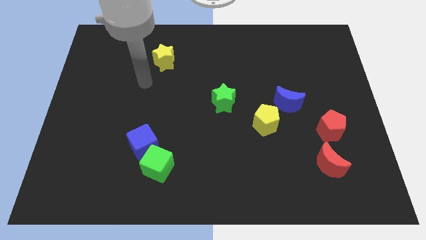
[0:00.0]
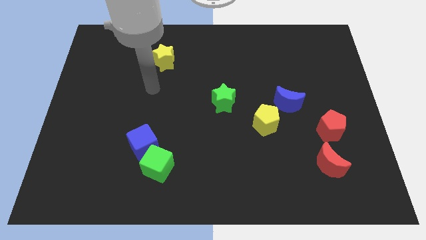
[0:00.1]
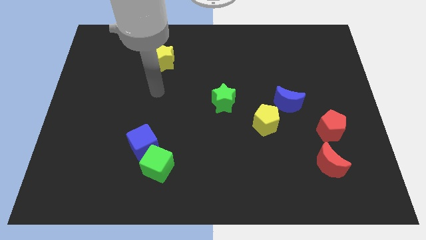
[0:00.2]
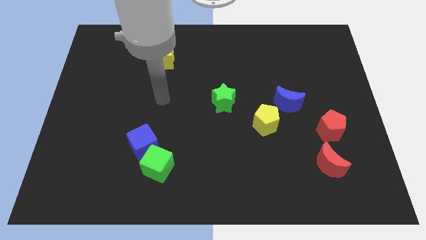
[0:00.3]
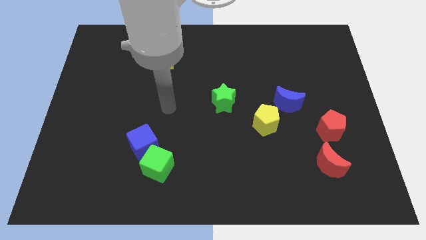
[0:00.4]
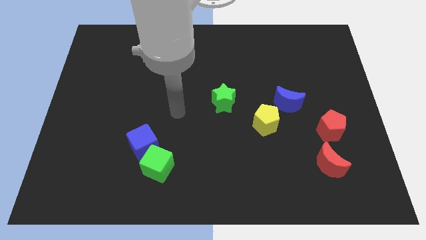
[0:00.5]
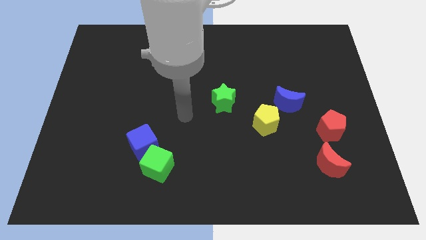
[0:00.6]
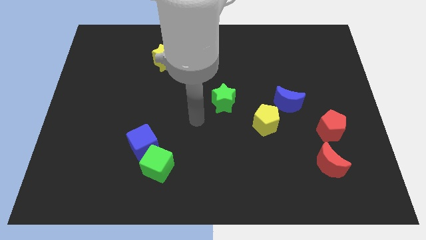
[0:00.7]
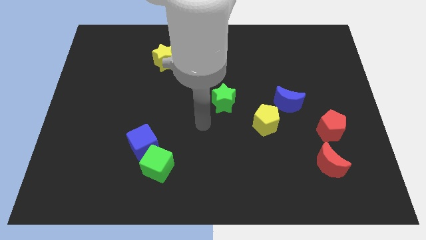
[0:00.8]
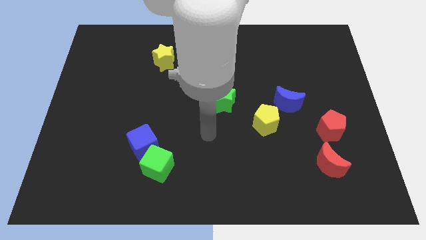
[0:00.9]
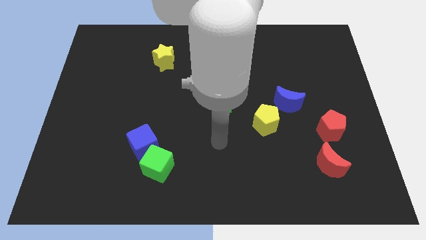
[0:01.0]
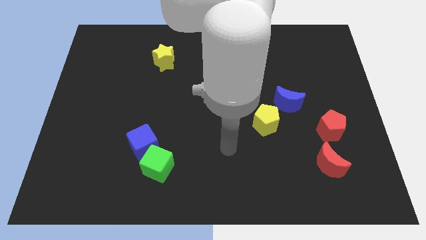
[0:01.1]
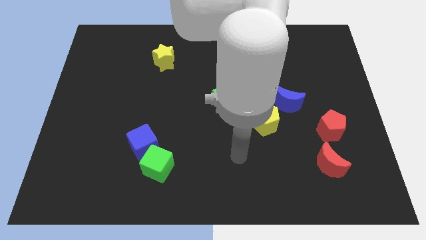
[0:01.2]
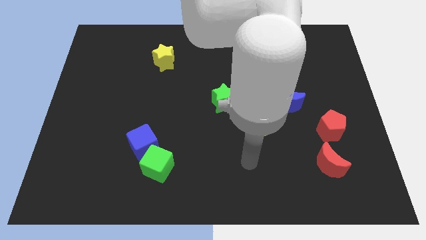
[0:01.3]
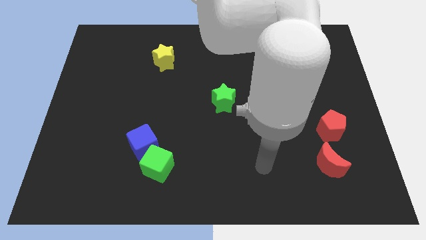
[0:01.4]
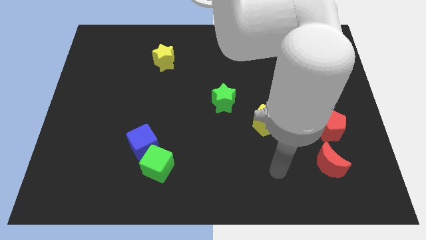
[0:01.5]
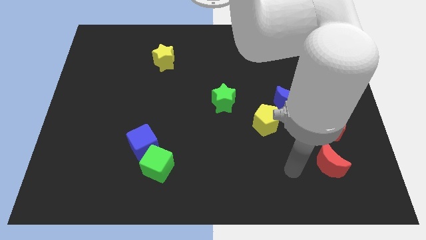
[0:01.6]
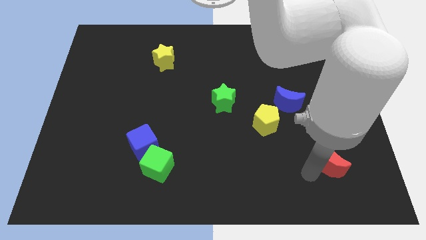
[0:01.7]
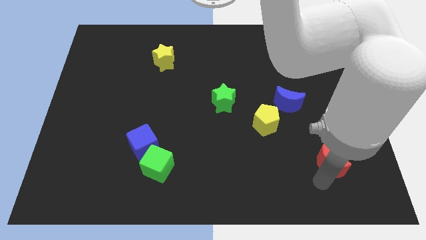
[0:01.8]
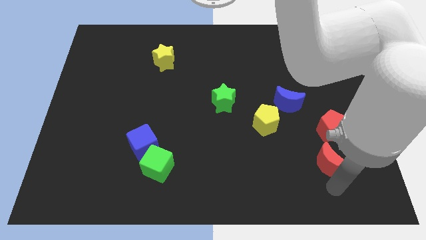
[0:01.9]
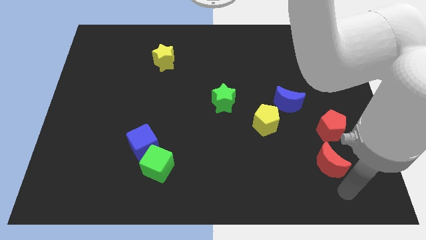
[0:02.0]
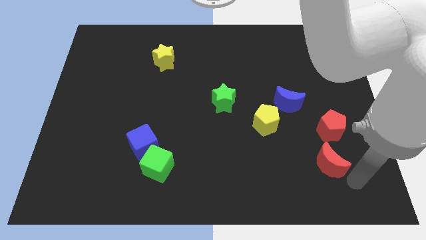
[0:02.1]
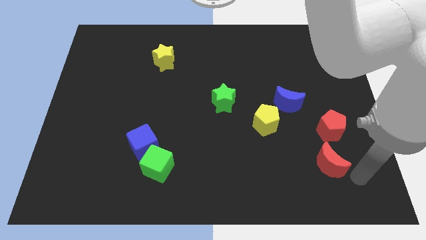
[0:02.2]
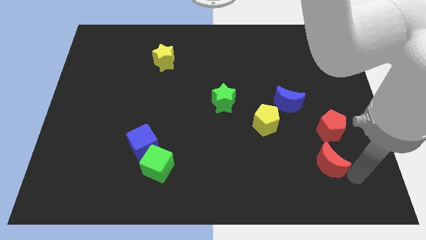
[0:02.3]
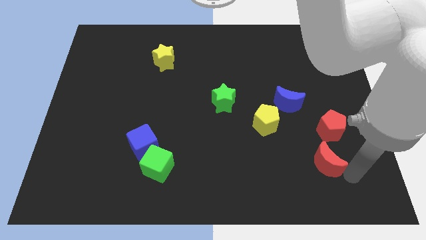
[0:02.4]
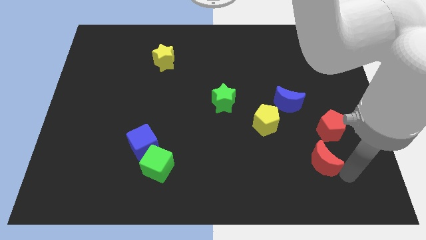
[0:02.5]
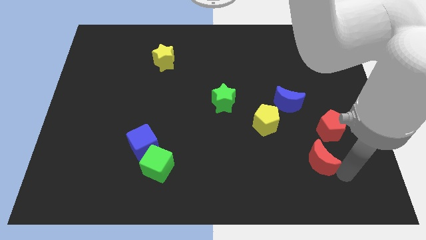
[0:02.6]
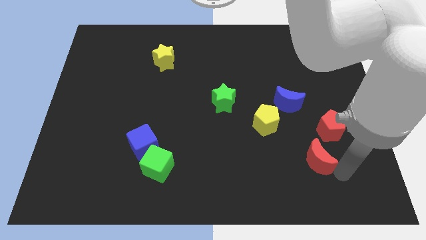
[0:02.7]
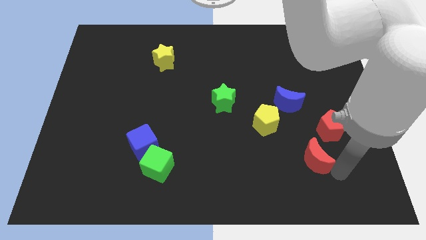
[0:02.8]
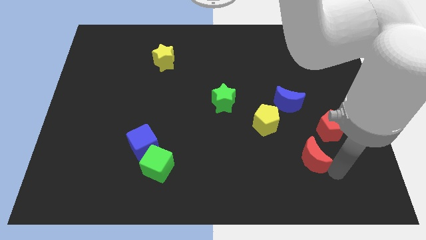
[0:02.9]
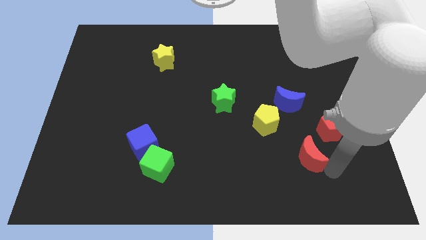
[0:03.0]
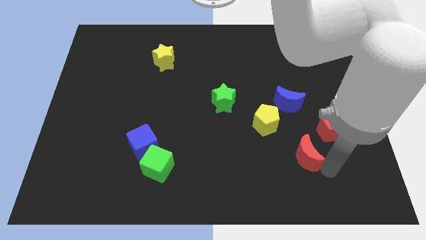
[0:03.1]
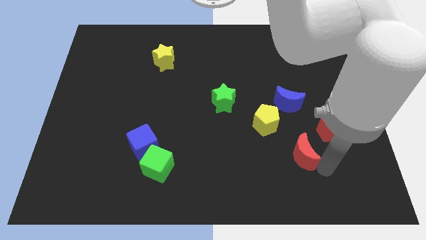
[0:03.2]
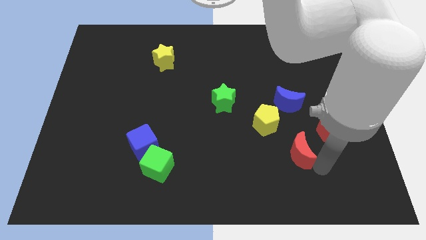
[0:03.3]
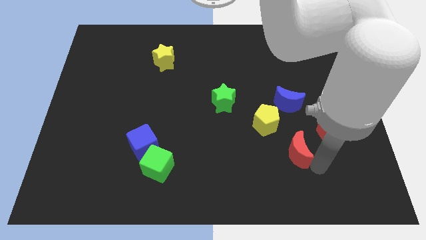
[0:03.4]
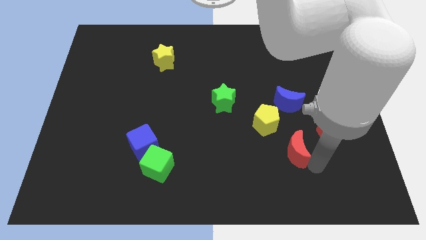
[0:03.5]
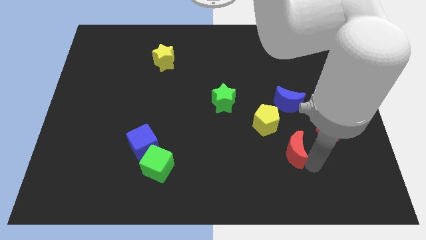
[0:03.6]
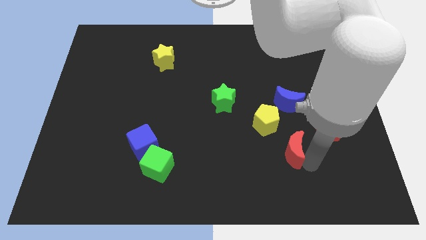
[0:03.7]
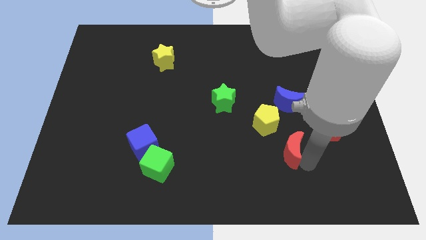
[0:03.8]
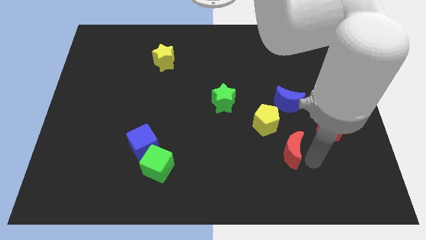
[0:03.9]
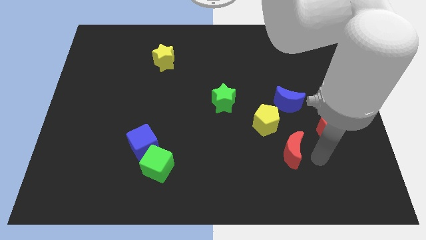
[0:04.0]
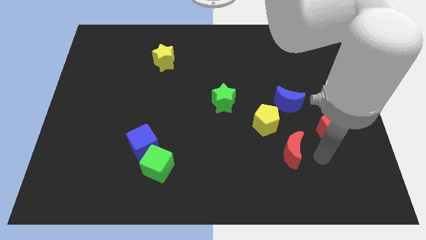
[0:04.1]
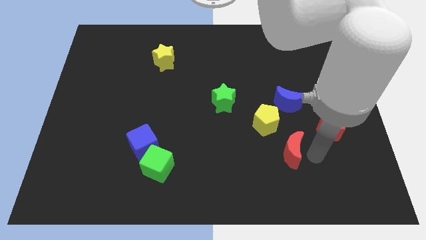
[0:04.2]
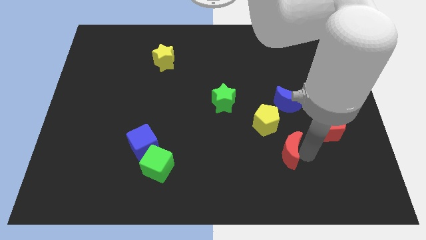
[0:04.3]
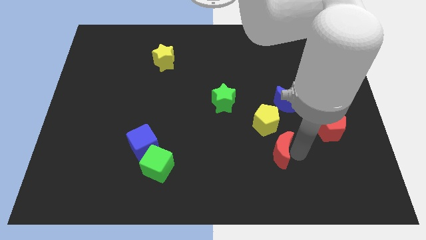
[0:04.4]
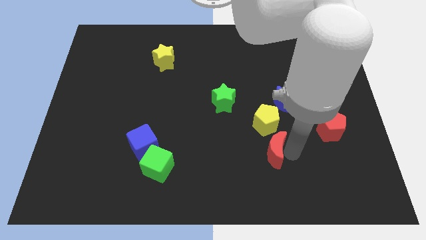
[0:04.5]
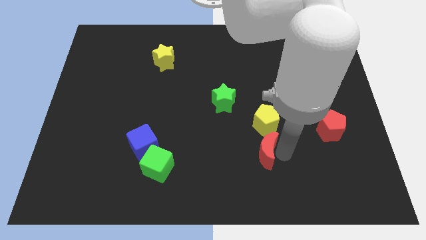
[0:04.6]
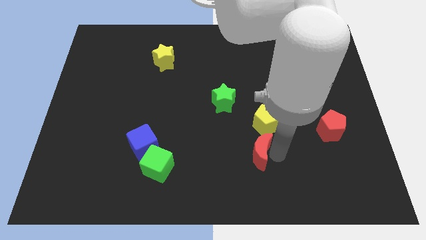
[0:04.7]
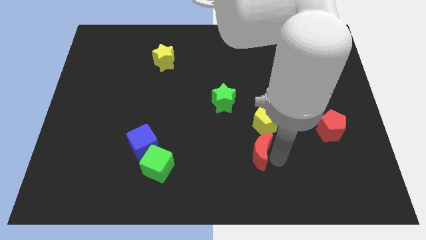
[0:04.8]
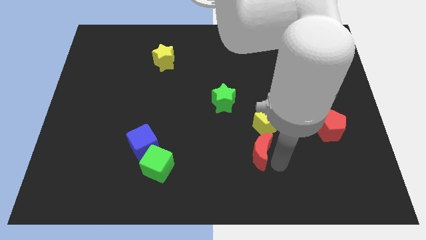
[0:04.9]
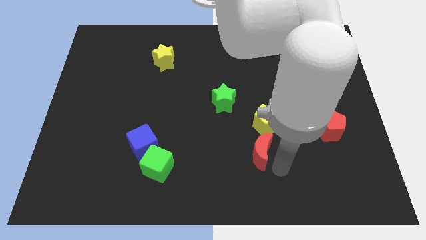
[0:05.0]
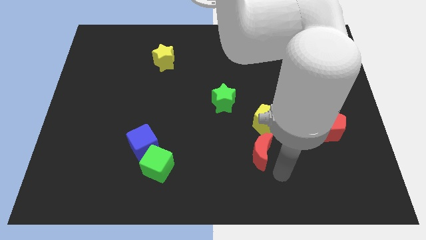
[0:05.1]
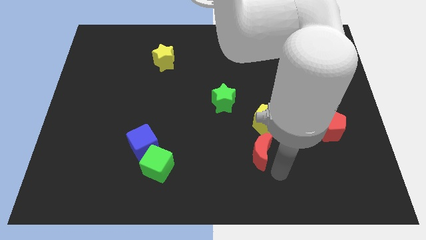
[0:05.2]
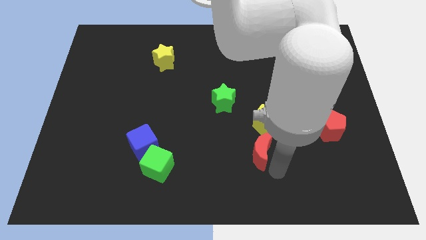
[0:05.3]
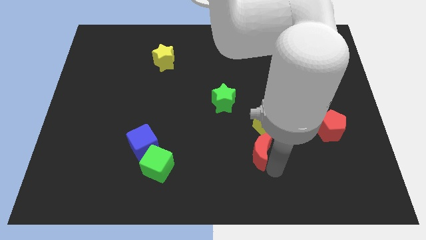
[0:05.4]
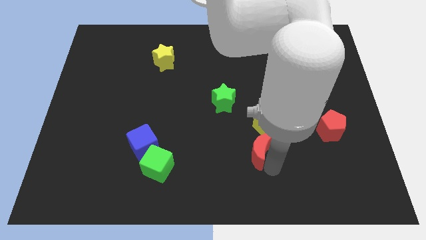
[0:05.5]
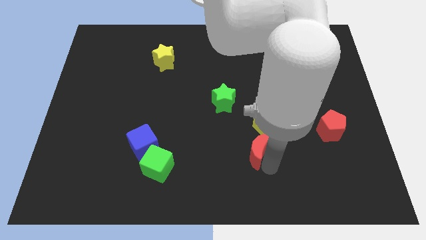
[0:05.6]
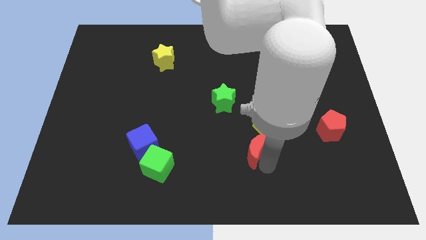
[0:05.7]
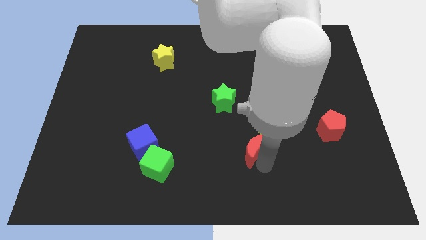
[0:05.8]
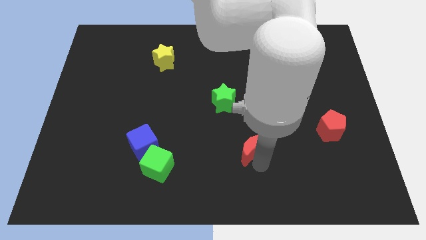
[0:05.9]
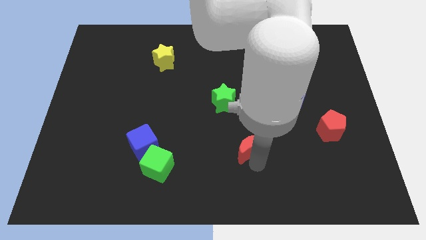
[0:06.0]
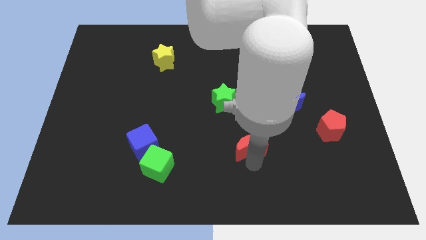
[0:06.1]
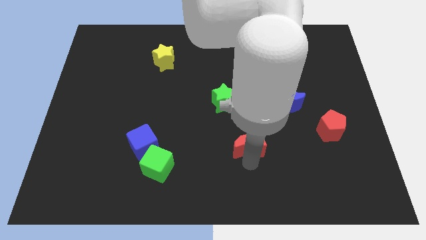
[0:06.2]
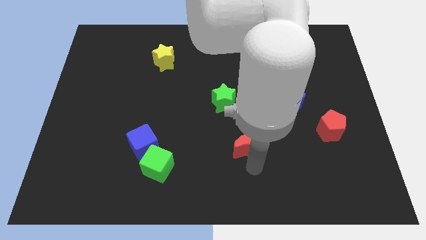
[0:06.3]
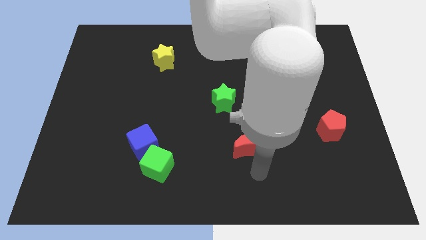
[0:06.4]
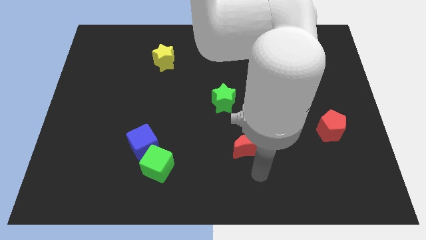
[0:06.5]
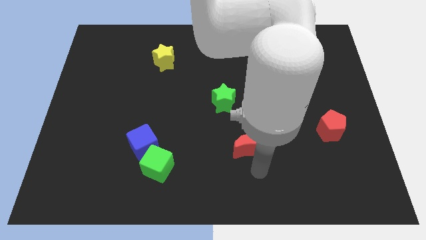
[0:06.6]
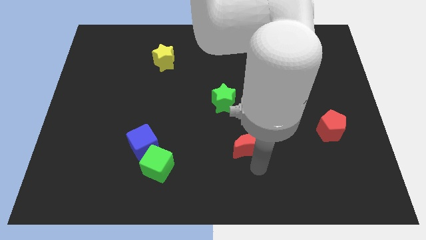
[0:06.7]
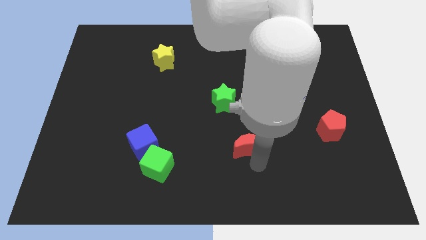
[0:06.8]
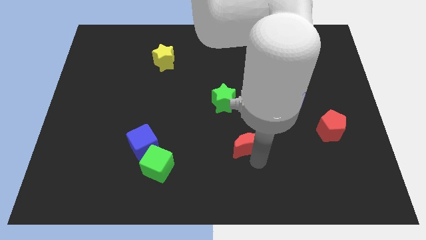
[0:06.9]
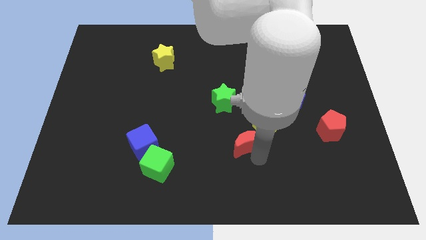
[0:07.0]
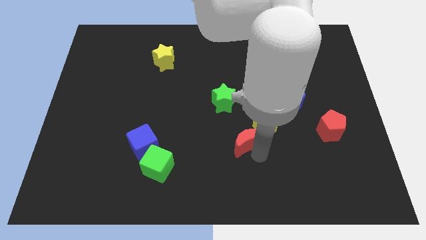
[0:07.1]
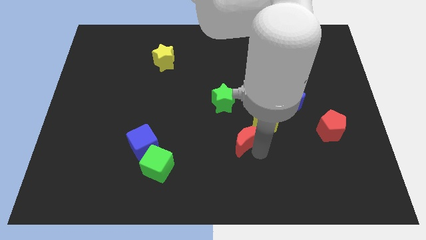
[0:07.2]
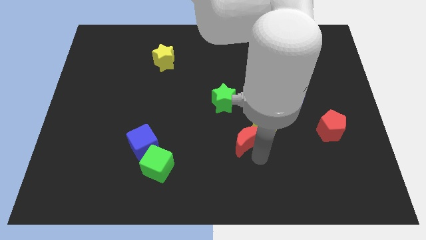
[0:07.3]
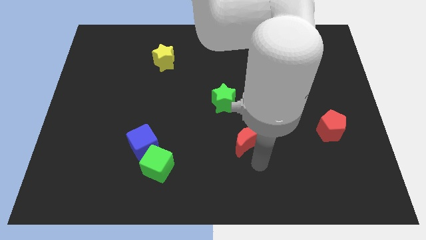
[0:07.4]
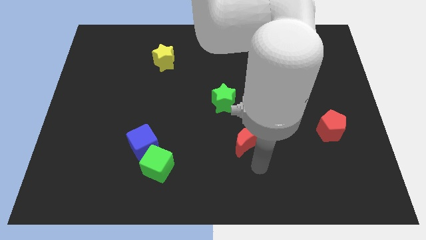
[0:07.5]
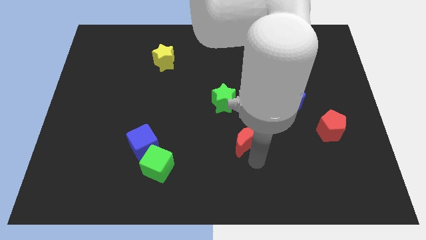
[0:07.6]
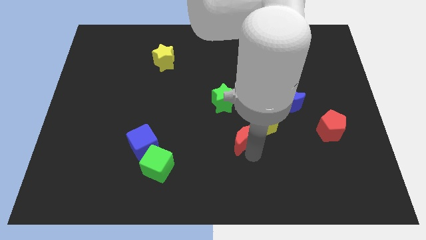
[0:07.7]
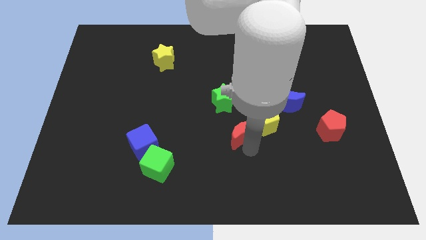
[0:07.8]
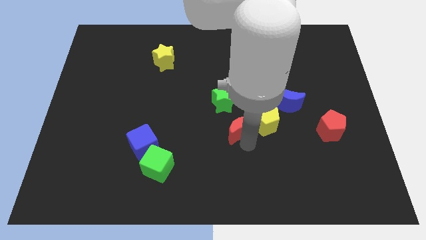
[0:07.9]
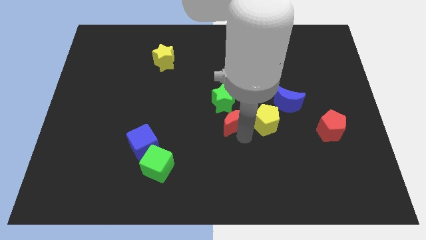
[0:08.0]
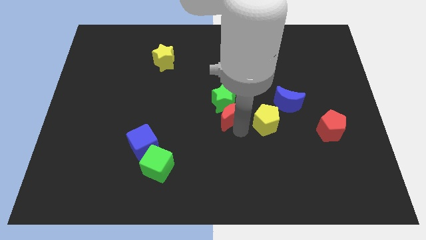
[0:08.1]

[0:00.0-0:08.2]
slide the red moon towards the green star
